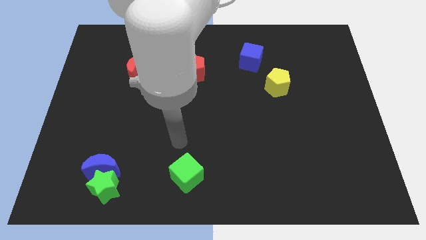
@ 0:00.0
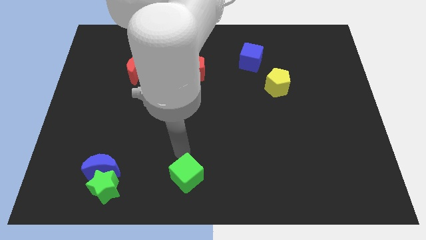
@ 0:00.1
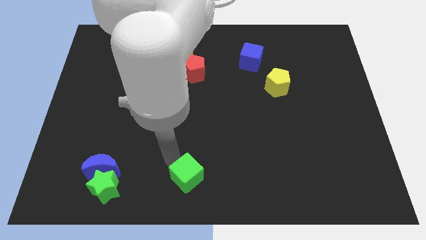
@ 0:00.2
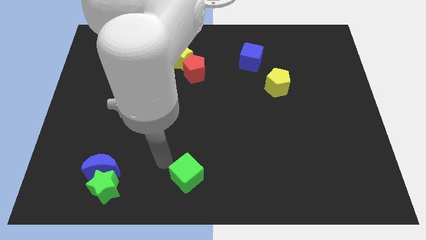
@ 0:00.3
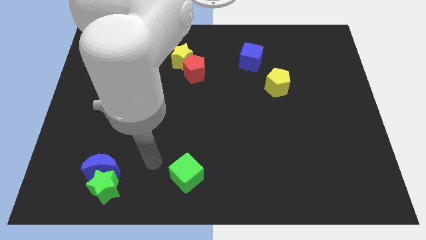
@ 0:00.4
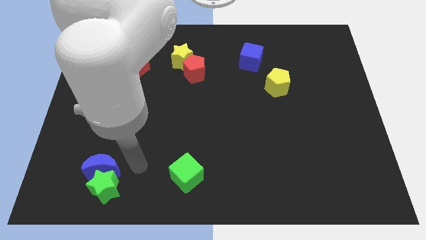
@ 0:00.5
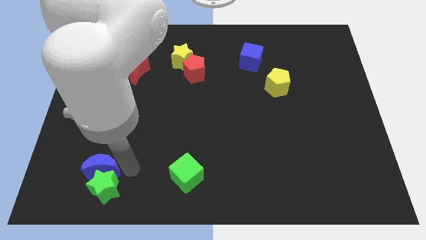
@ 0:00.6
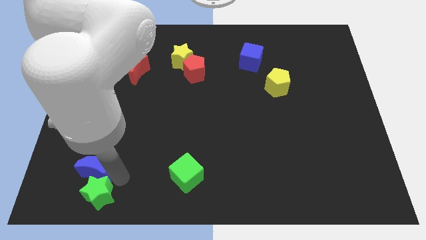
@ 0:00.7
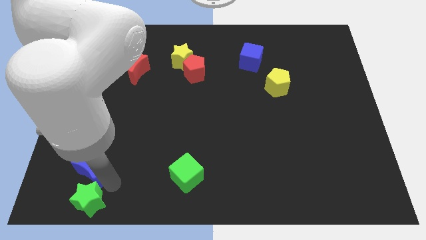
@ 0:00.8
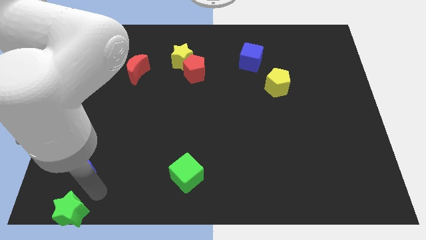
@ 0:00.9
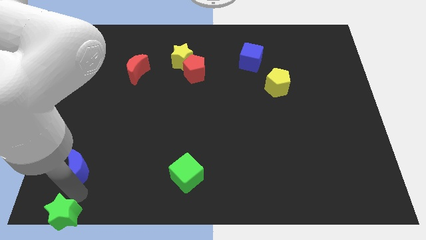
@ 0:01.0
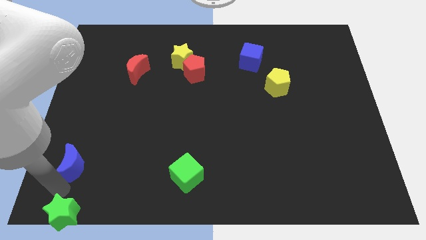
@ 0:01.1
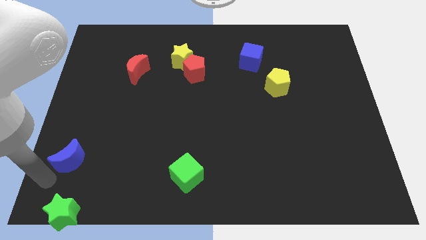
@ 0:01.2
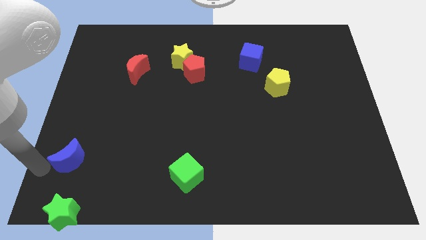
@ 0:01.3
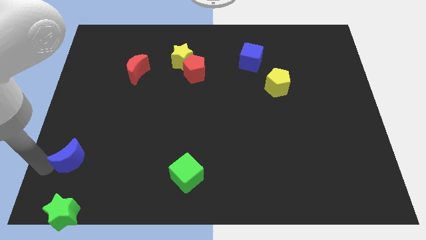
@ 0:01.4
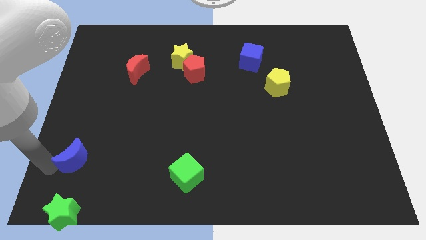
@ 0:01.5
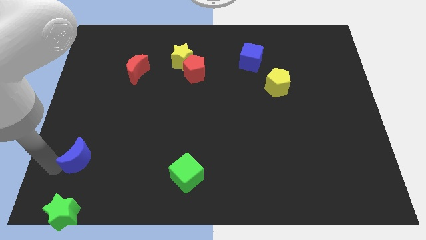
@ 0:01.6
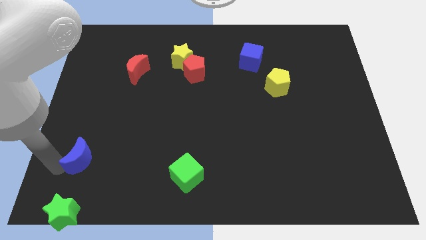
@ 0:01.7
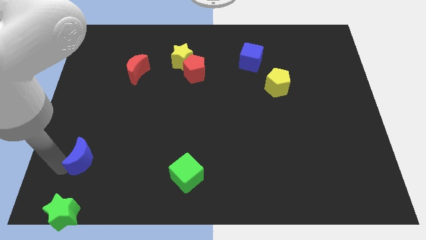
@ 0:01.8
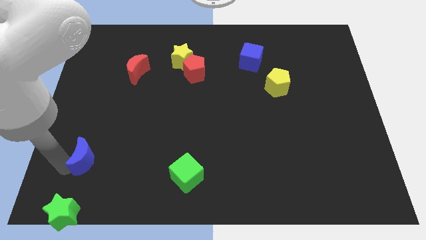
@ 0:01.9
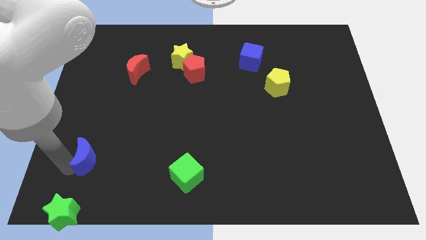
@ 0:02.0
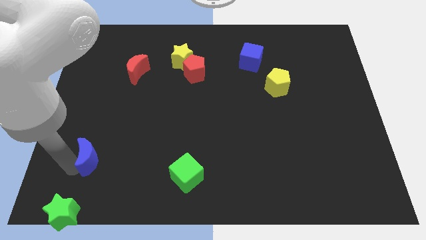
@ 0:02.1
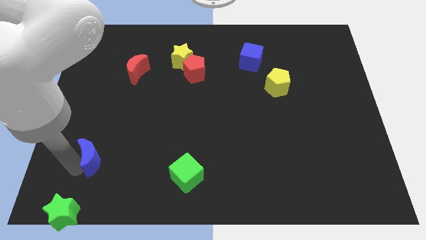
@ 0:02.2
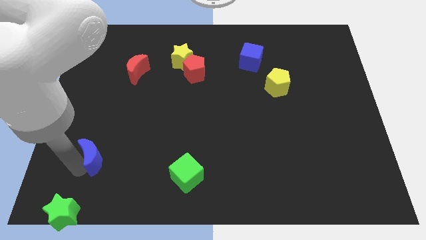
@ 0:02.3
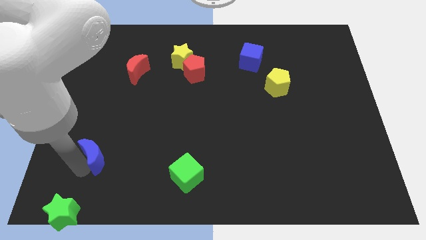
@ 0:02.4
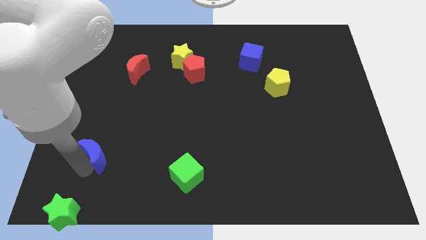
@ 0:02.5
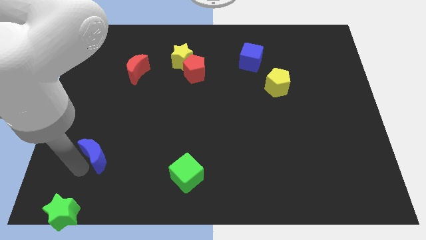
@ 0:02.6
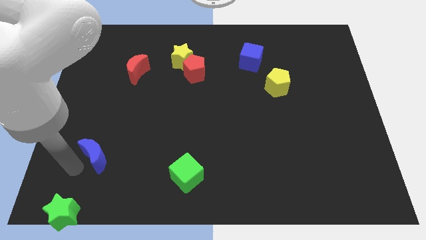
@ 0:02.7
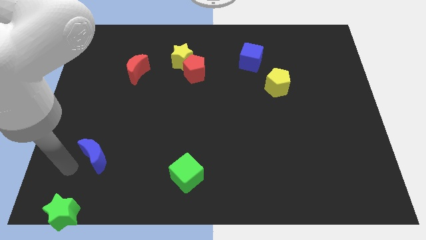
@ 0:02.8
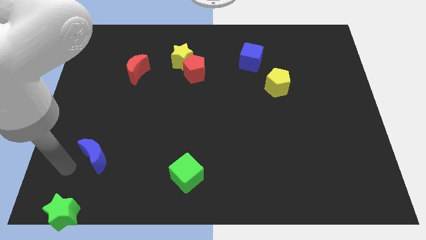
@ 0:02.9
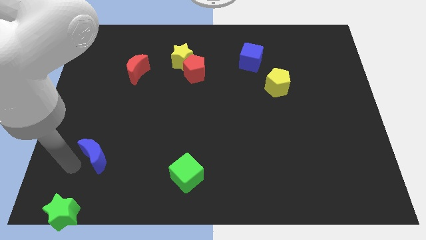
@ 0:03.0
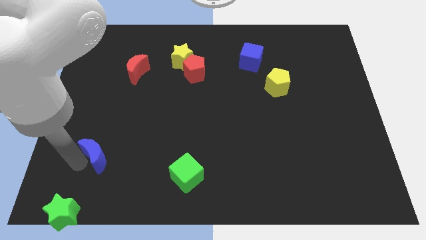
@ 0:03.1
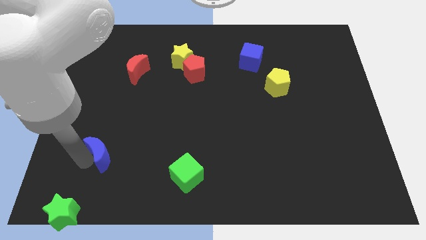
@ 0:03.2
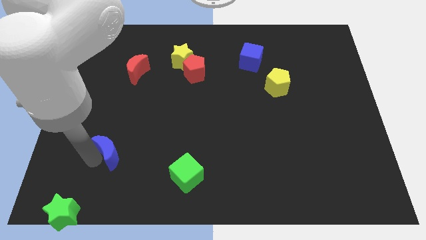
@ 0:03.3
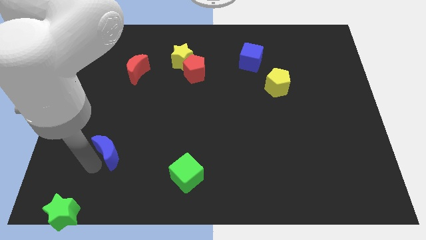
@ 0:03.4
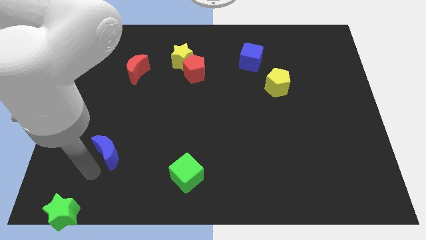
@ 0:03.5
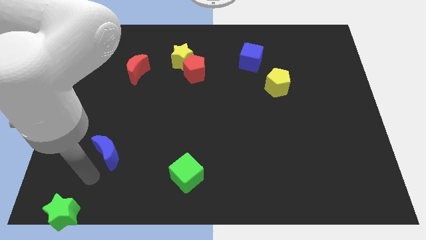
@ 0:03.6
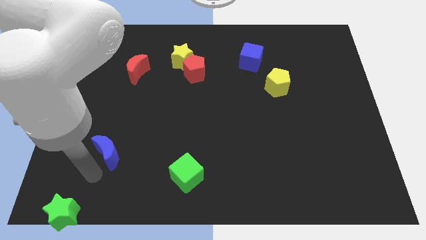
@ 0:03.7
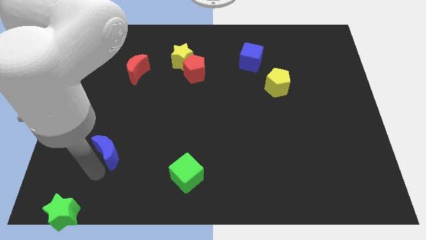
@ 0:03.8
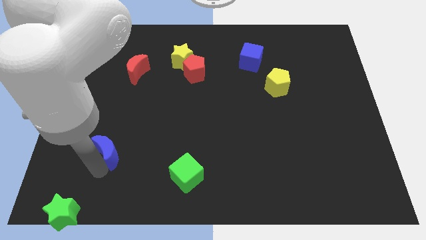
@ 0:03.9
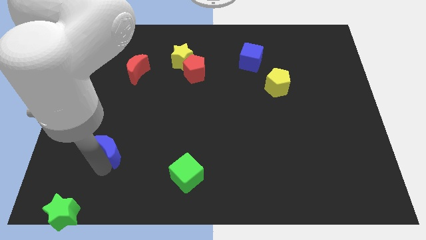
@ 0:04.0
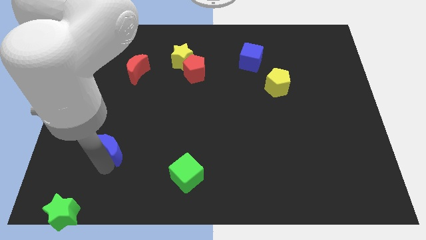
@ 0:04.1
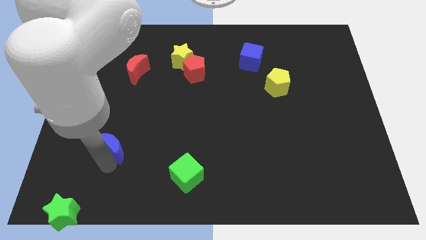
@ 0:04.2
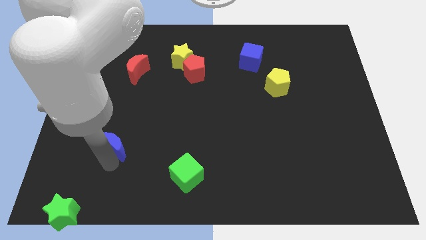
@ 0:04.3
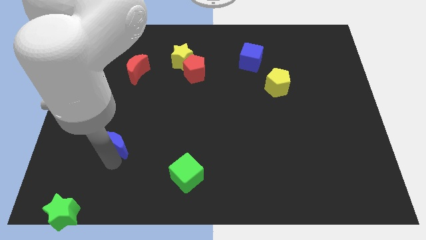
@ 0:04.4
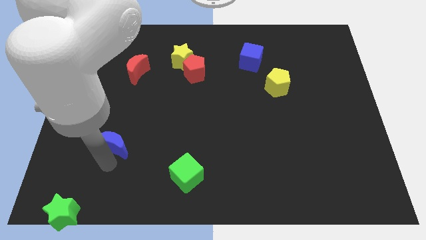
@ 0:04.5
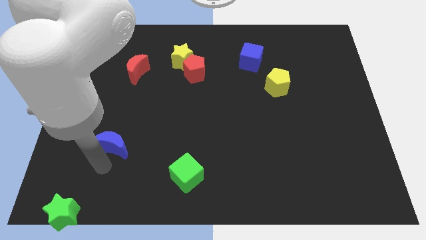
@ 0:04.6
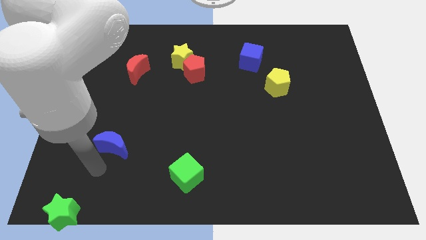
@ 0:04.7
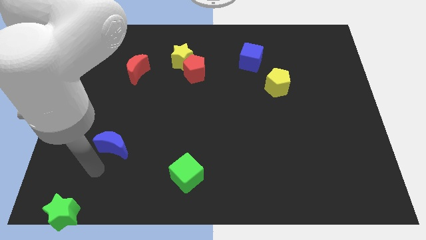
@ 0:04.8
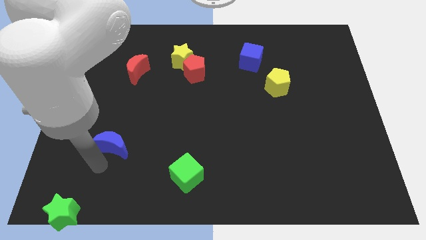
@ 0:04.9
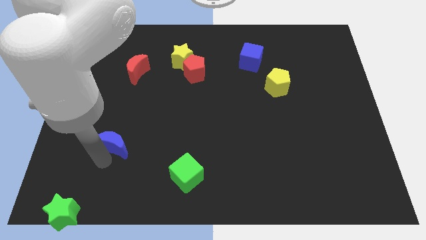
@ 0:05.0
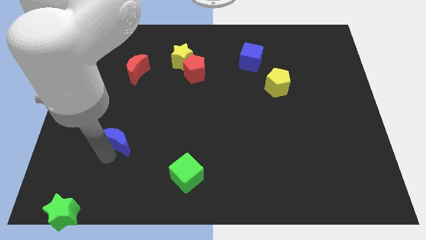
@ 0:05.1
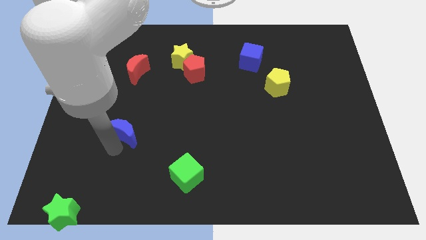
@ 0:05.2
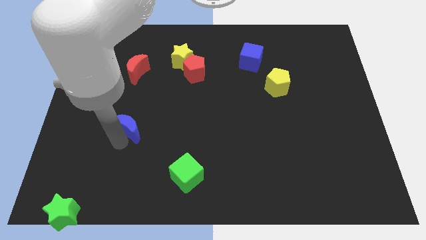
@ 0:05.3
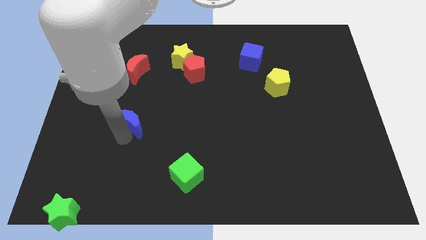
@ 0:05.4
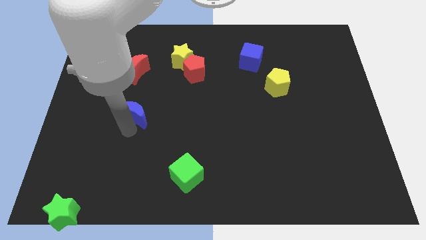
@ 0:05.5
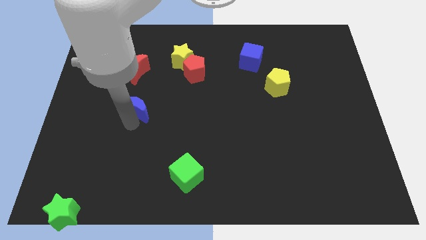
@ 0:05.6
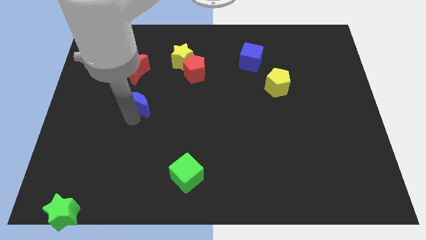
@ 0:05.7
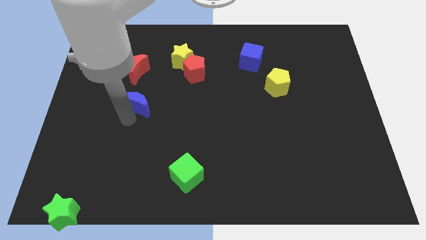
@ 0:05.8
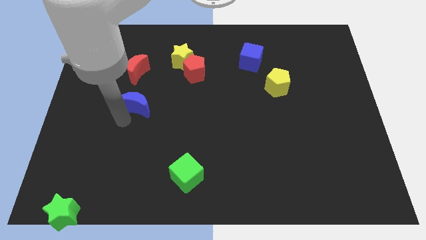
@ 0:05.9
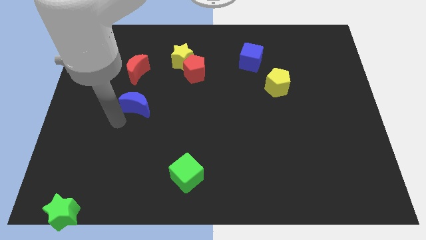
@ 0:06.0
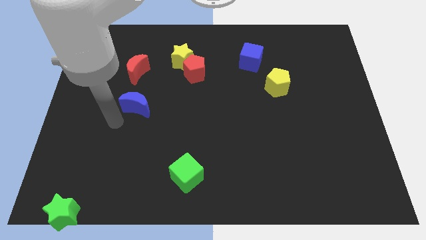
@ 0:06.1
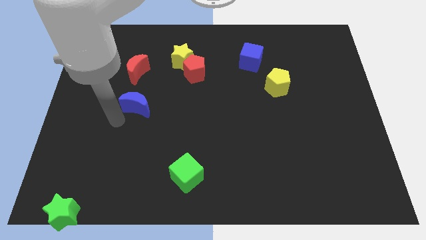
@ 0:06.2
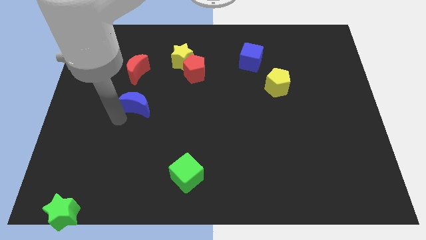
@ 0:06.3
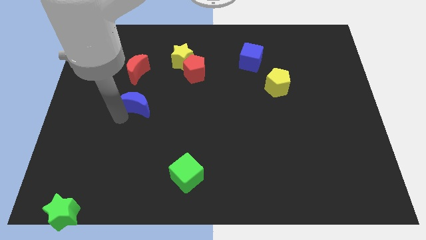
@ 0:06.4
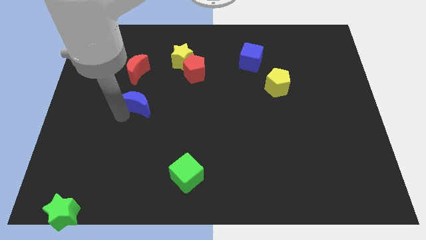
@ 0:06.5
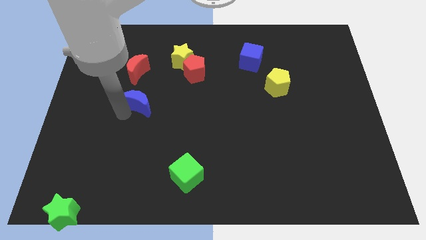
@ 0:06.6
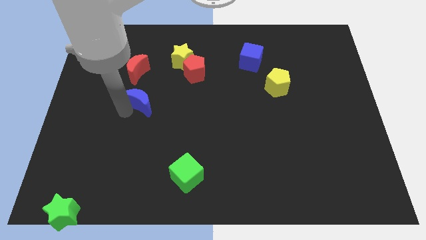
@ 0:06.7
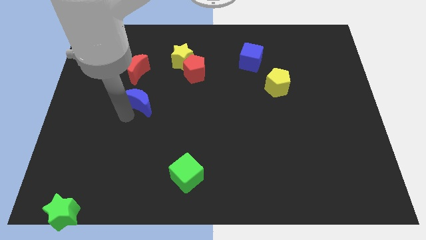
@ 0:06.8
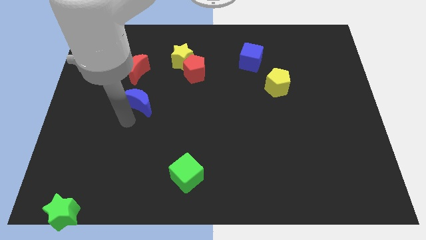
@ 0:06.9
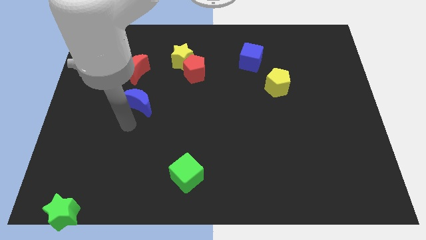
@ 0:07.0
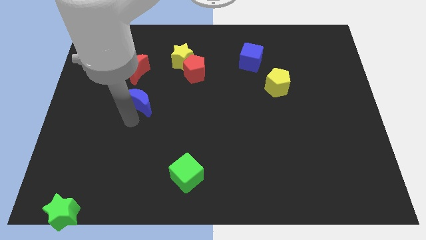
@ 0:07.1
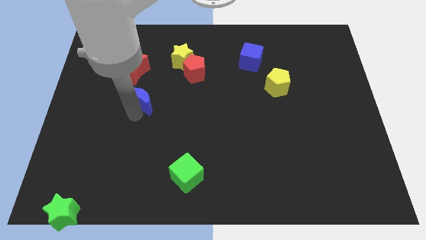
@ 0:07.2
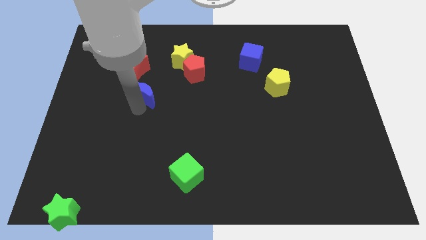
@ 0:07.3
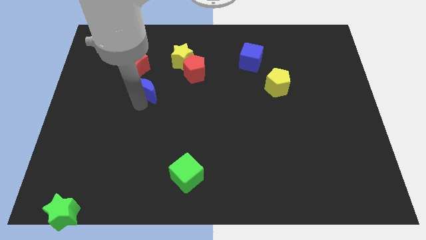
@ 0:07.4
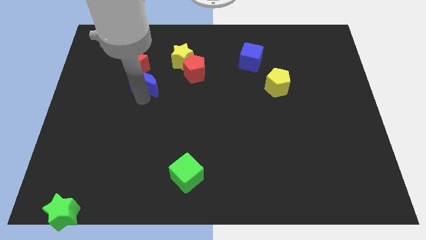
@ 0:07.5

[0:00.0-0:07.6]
slide the blue moon to the left side of the red pentagon
